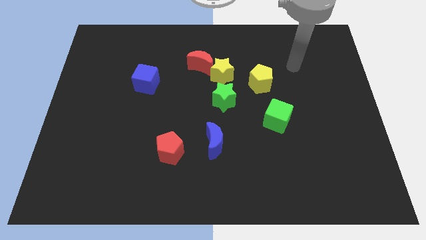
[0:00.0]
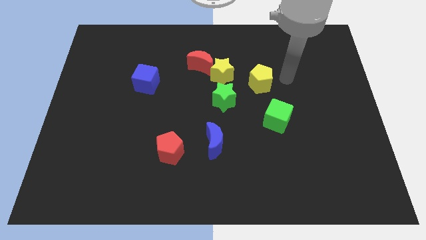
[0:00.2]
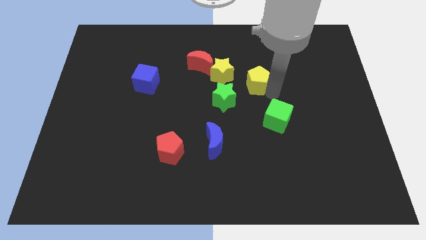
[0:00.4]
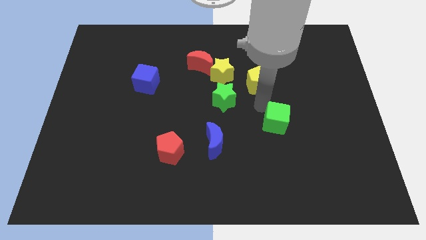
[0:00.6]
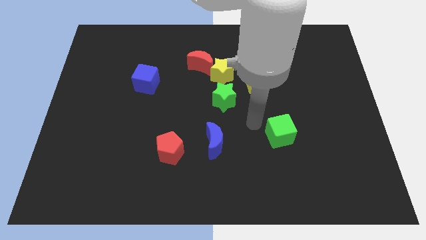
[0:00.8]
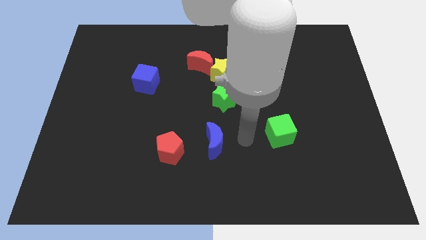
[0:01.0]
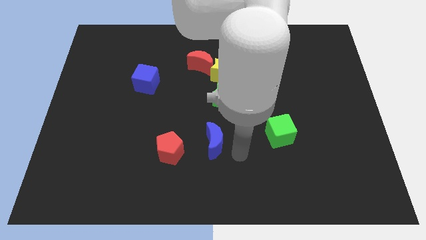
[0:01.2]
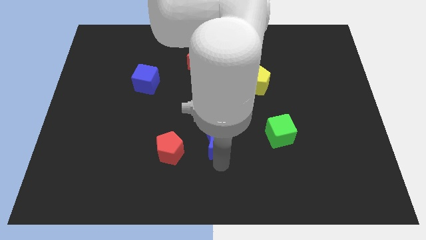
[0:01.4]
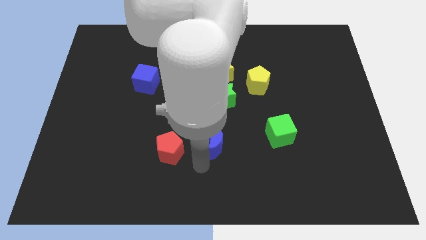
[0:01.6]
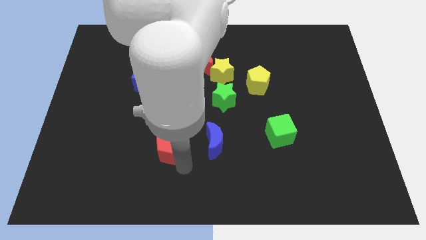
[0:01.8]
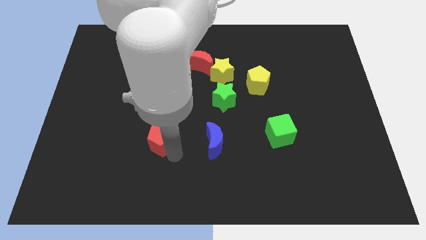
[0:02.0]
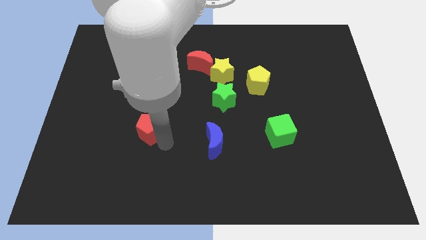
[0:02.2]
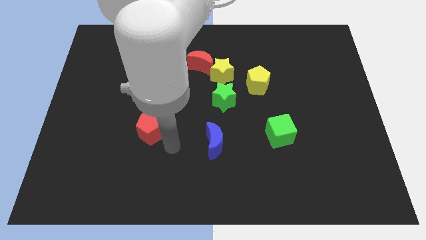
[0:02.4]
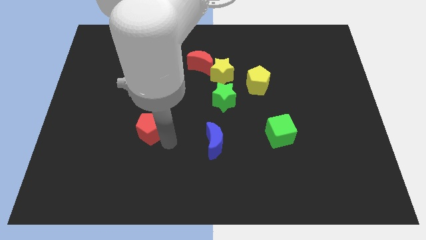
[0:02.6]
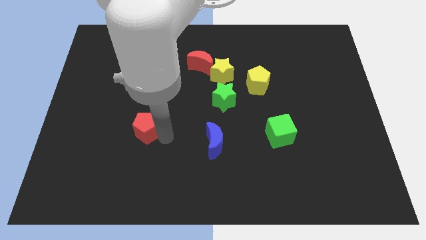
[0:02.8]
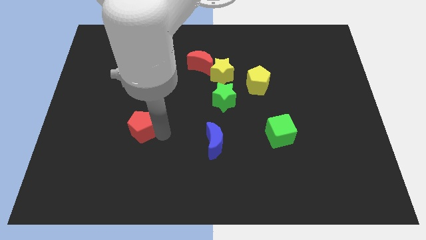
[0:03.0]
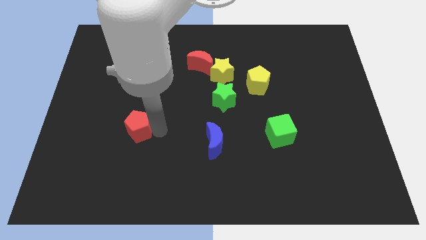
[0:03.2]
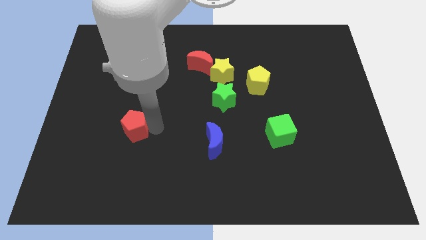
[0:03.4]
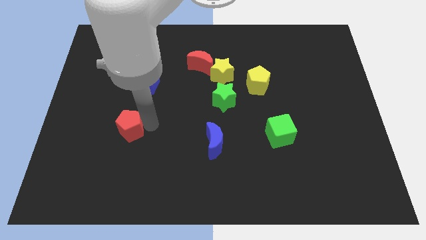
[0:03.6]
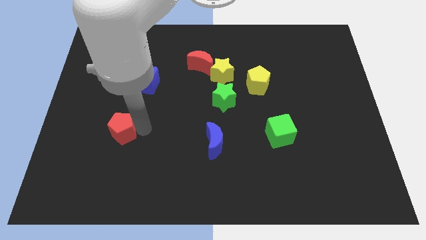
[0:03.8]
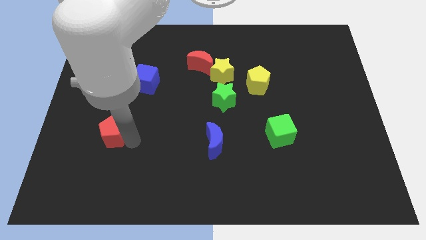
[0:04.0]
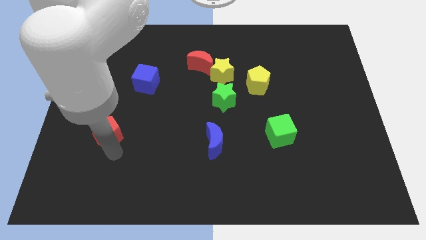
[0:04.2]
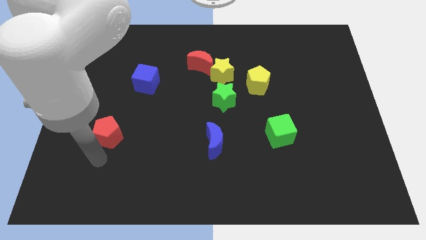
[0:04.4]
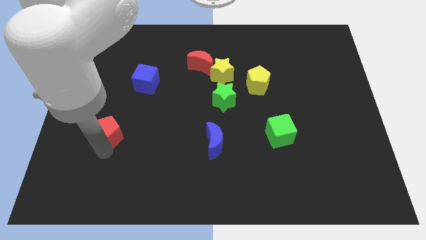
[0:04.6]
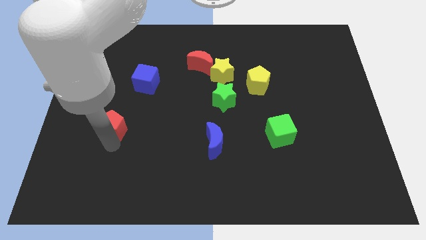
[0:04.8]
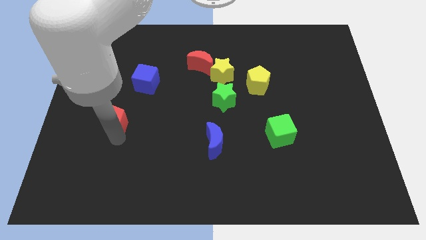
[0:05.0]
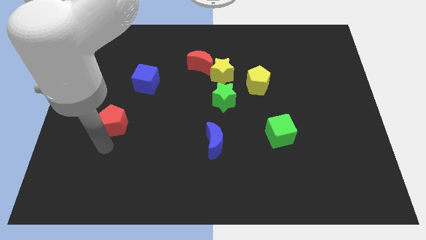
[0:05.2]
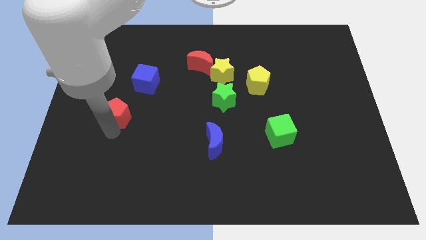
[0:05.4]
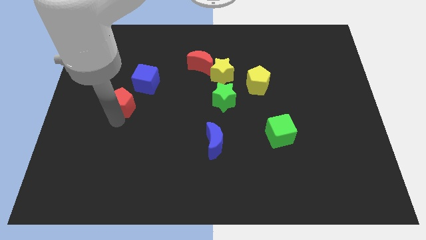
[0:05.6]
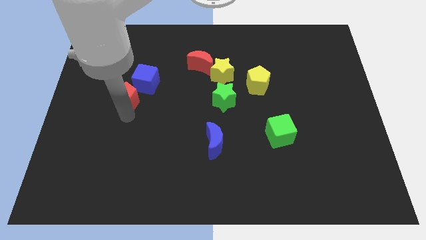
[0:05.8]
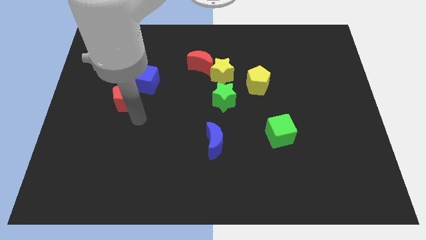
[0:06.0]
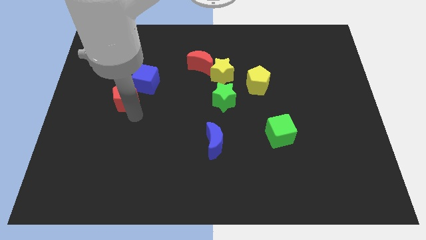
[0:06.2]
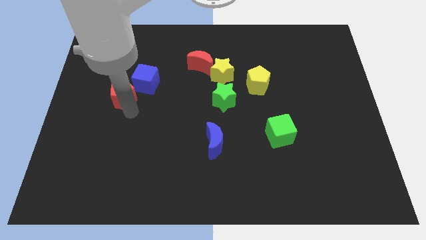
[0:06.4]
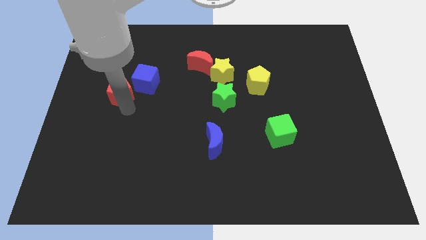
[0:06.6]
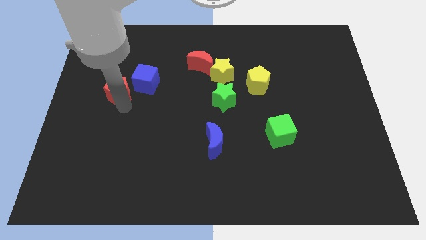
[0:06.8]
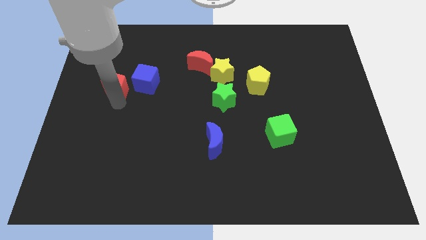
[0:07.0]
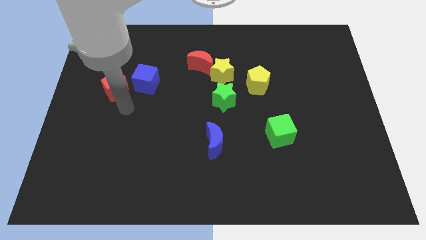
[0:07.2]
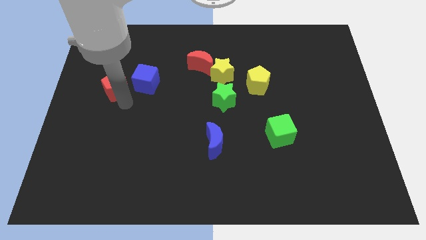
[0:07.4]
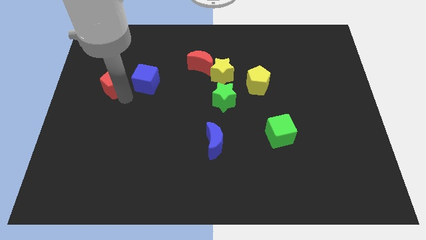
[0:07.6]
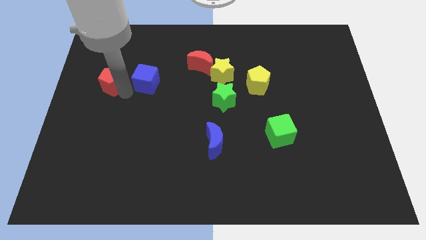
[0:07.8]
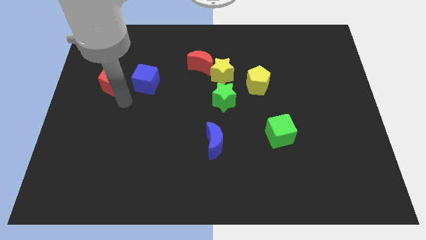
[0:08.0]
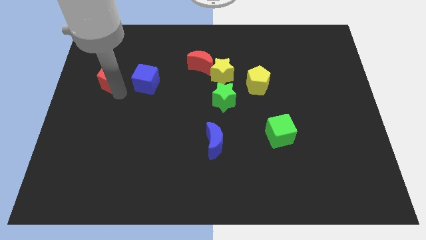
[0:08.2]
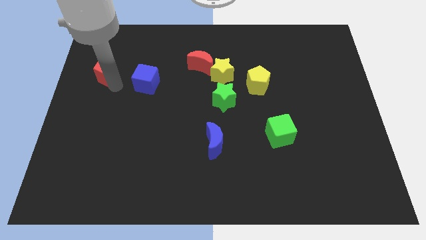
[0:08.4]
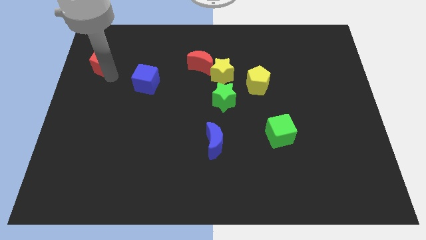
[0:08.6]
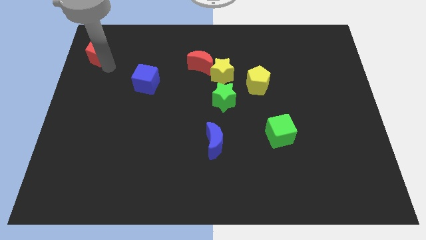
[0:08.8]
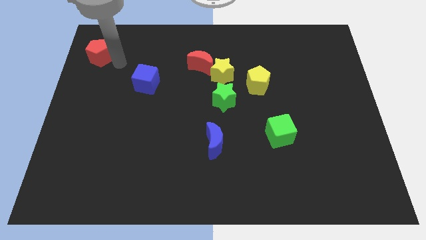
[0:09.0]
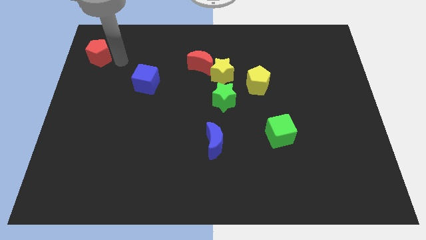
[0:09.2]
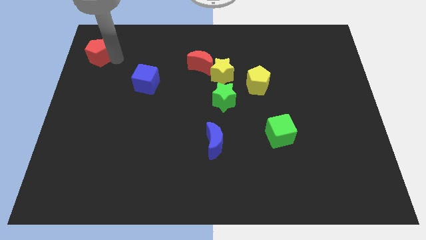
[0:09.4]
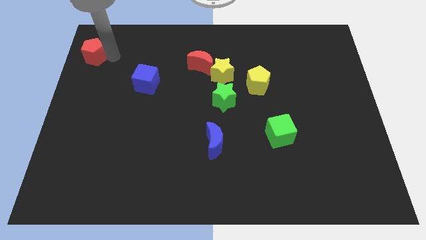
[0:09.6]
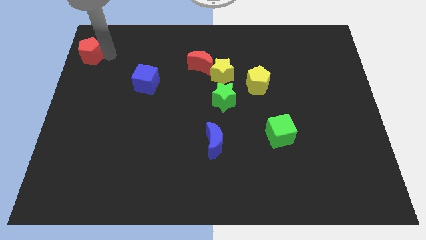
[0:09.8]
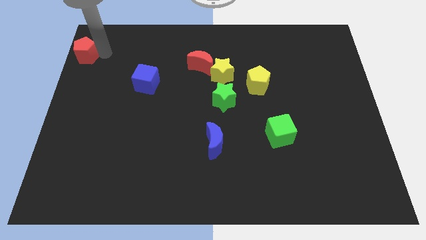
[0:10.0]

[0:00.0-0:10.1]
put the red pentagon to the upper left corner

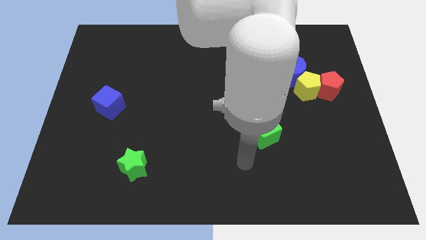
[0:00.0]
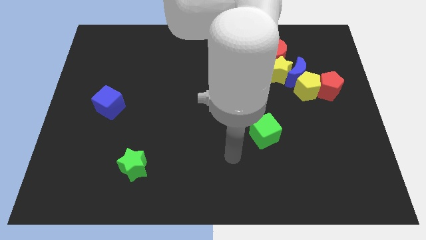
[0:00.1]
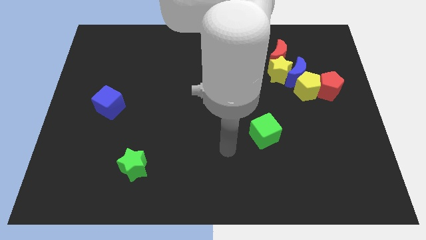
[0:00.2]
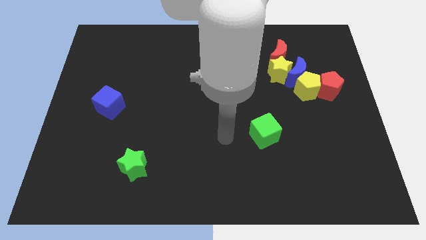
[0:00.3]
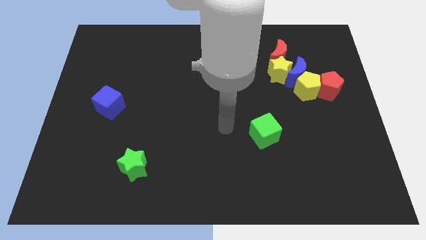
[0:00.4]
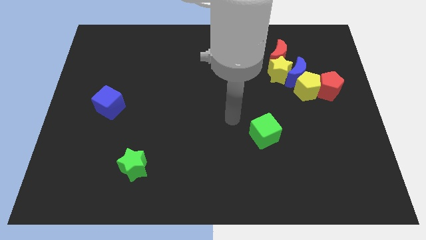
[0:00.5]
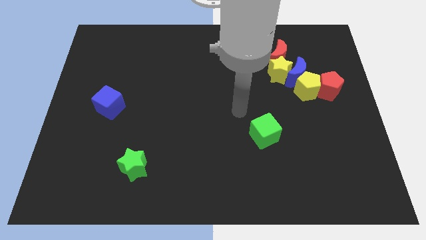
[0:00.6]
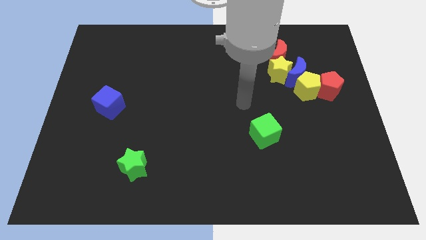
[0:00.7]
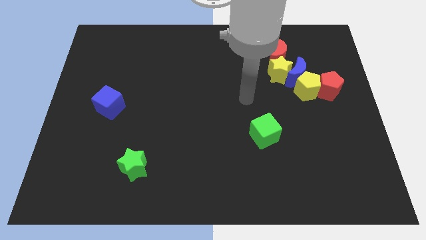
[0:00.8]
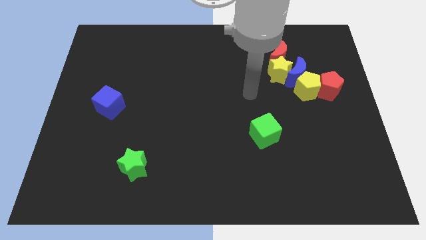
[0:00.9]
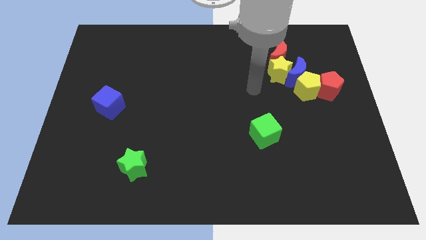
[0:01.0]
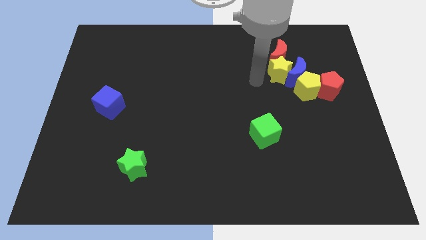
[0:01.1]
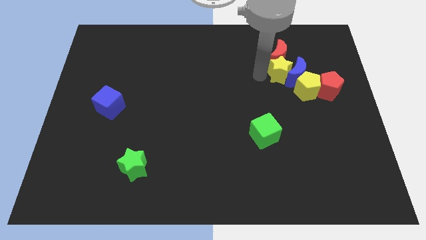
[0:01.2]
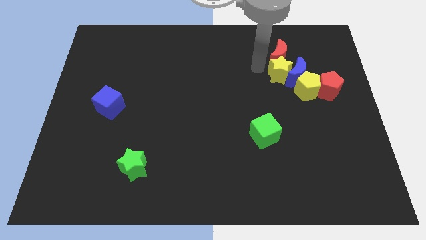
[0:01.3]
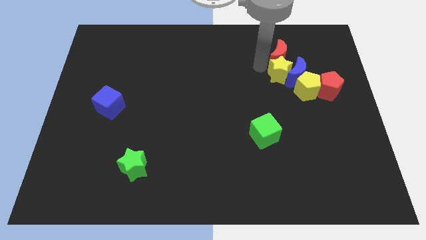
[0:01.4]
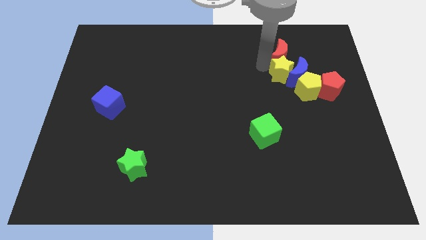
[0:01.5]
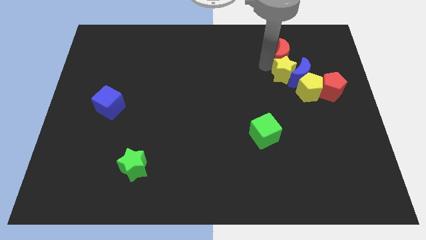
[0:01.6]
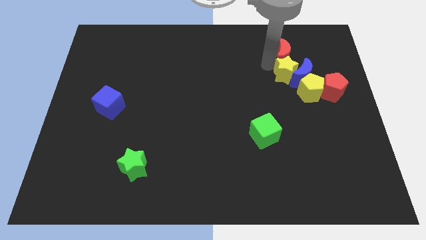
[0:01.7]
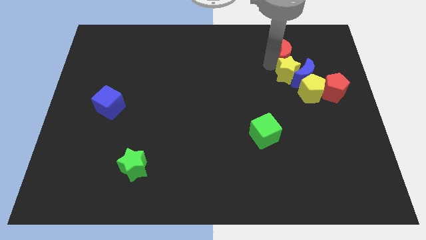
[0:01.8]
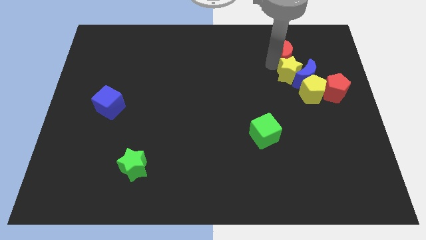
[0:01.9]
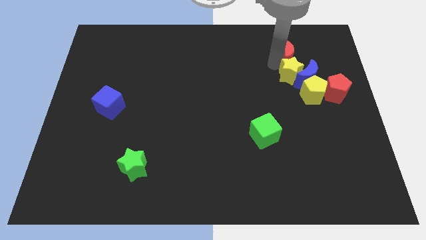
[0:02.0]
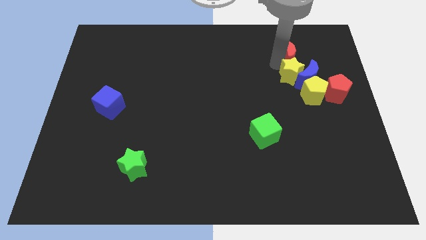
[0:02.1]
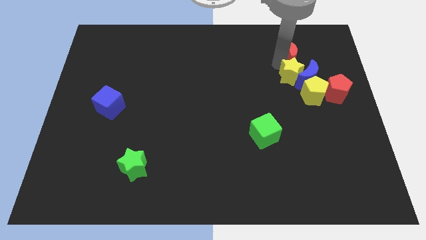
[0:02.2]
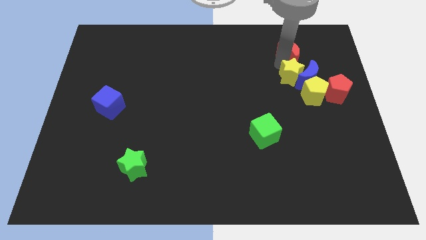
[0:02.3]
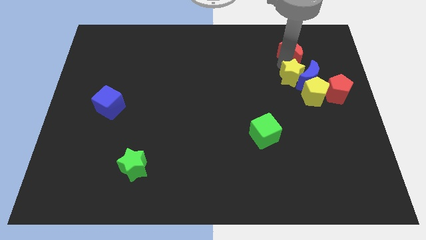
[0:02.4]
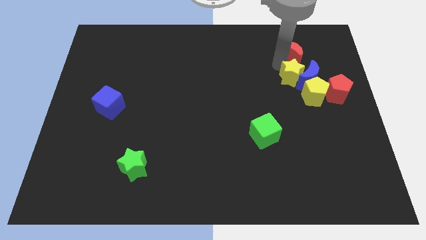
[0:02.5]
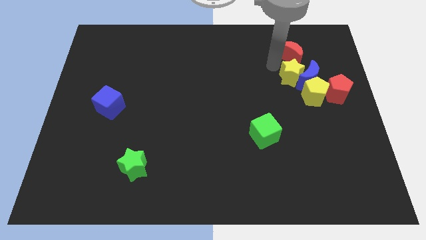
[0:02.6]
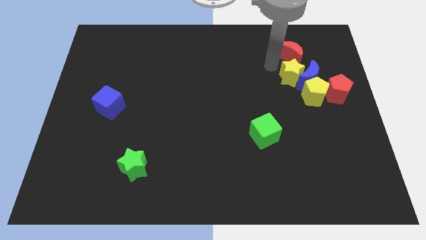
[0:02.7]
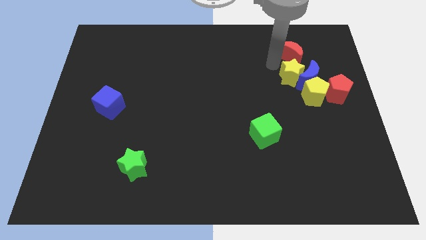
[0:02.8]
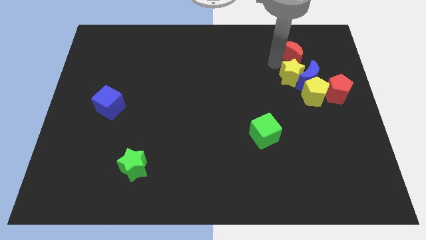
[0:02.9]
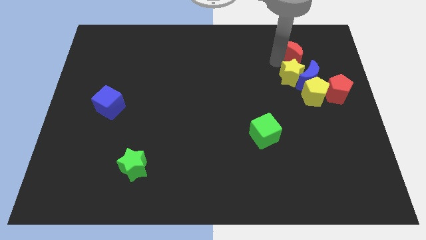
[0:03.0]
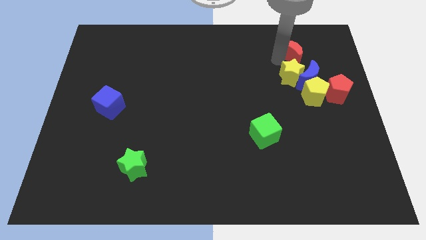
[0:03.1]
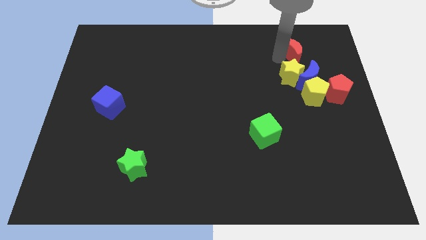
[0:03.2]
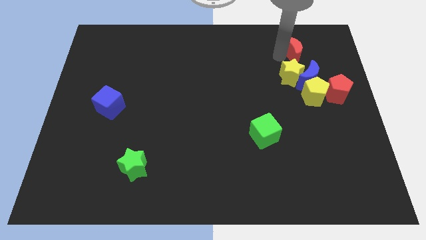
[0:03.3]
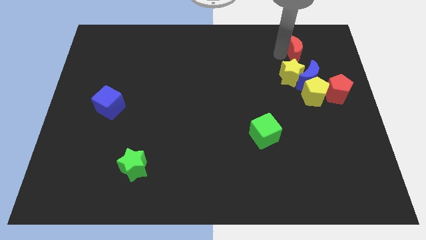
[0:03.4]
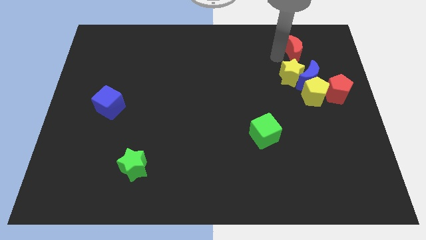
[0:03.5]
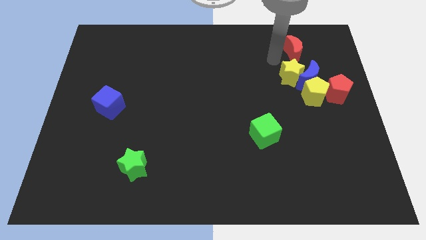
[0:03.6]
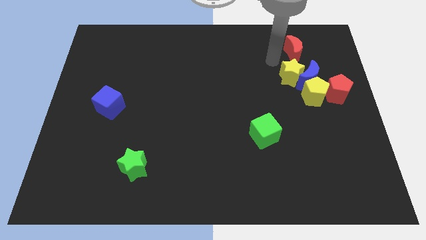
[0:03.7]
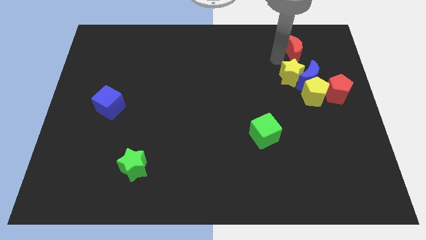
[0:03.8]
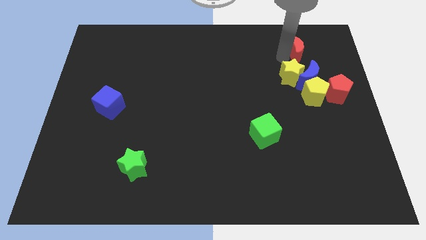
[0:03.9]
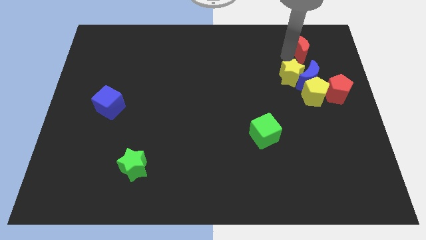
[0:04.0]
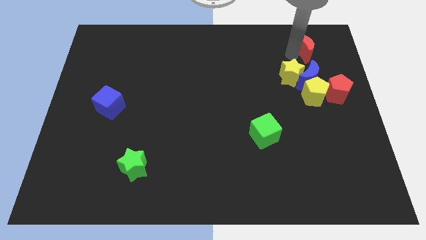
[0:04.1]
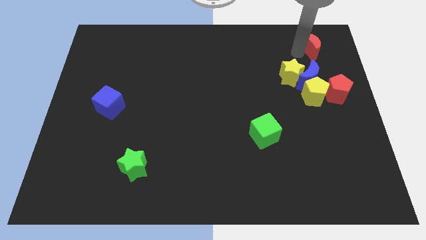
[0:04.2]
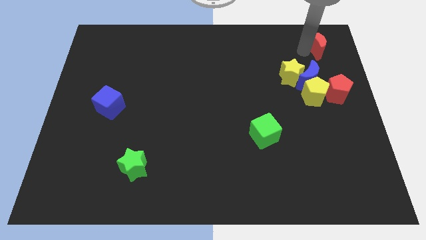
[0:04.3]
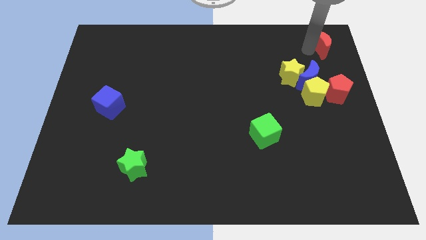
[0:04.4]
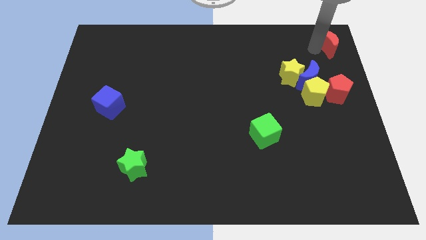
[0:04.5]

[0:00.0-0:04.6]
put the red moon to the upper right corner
